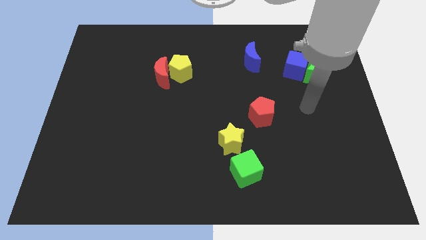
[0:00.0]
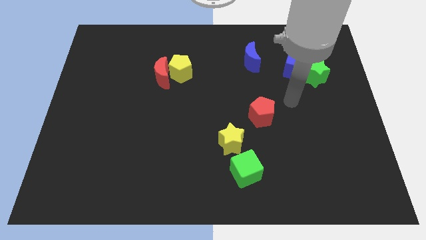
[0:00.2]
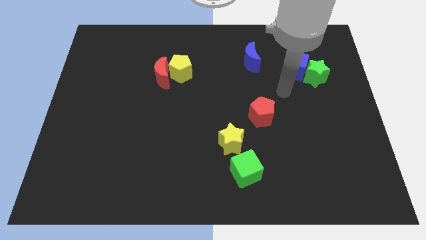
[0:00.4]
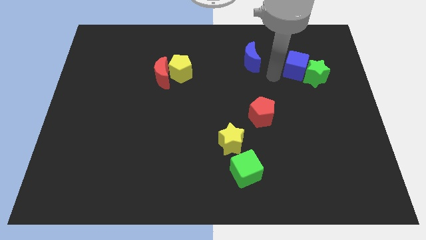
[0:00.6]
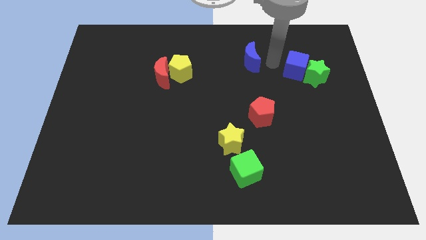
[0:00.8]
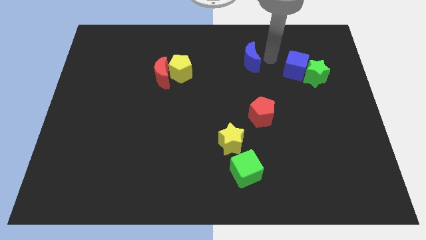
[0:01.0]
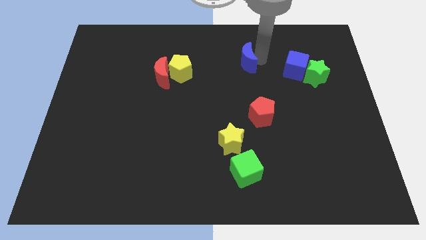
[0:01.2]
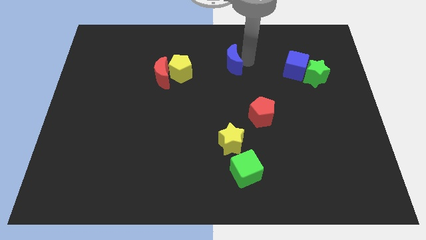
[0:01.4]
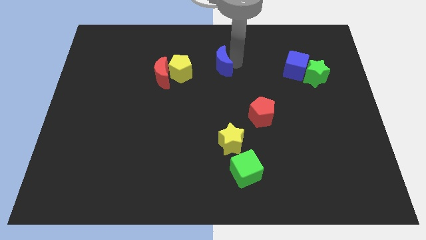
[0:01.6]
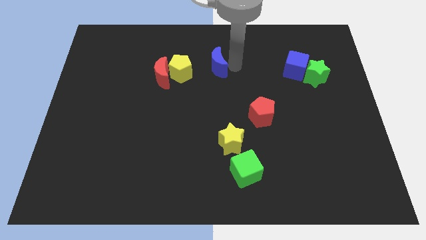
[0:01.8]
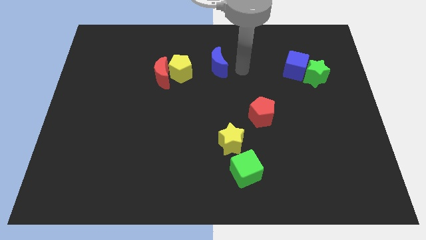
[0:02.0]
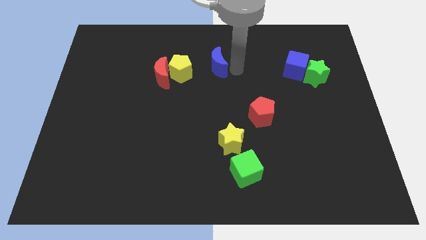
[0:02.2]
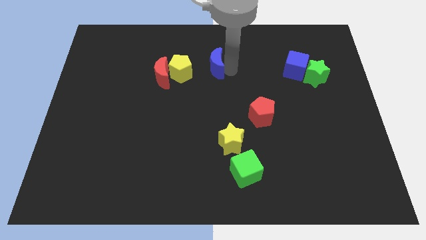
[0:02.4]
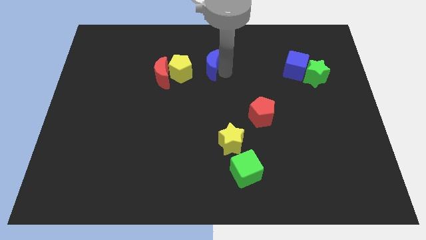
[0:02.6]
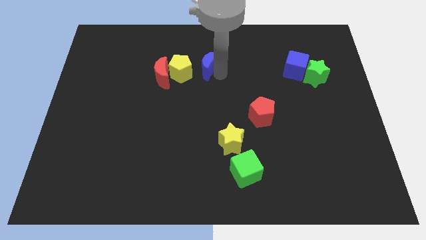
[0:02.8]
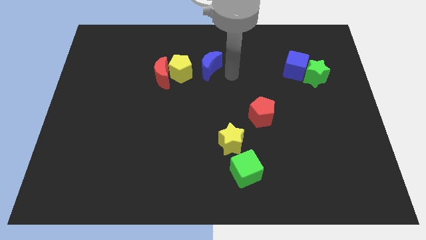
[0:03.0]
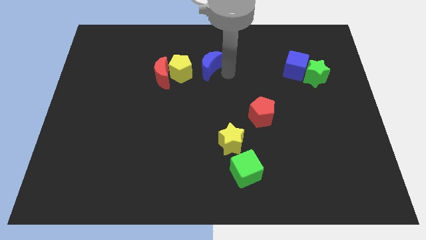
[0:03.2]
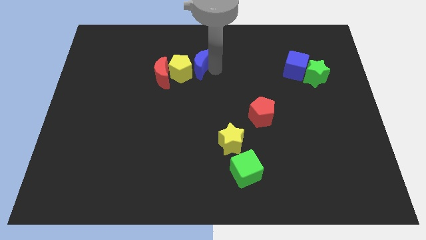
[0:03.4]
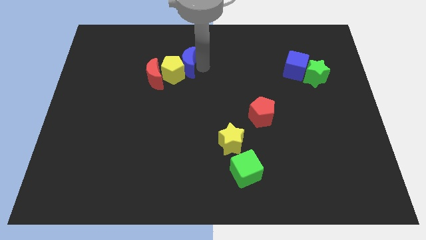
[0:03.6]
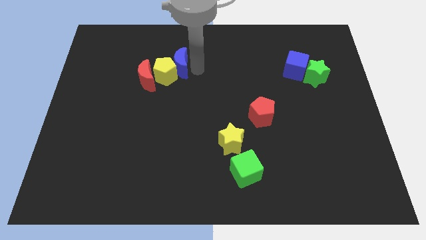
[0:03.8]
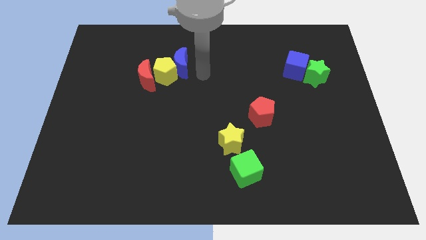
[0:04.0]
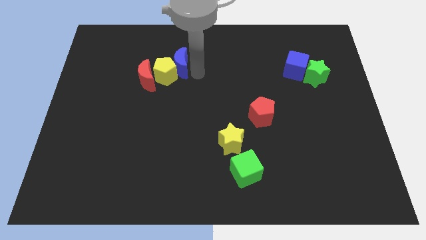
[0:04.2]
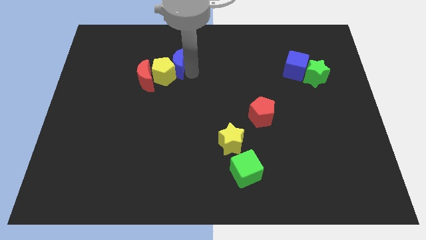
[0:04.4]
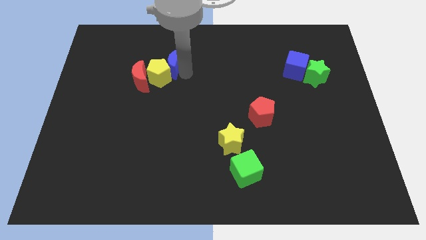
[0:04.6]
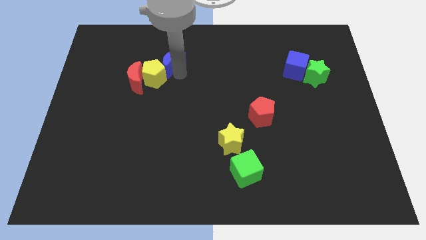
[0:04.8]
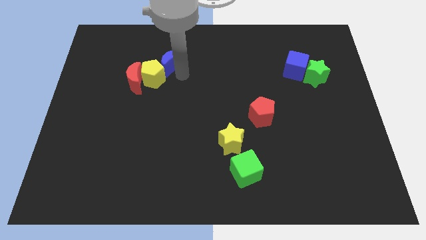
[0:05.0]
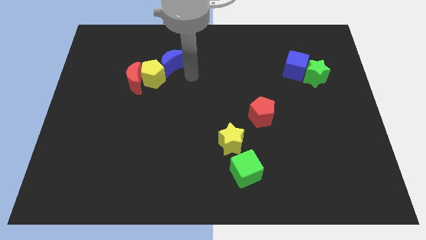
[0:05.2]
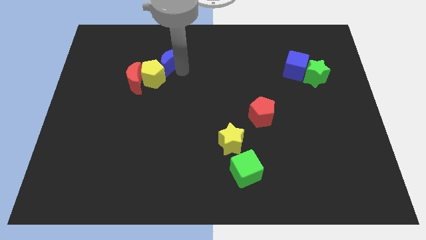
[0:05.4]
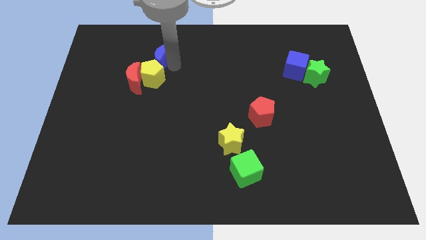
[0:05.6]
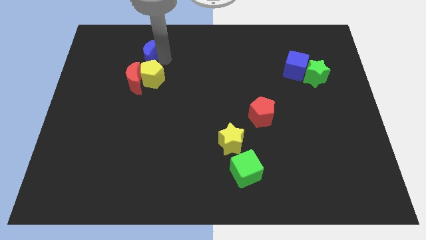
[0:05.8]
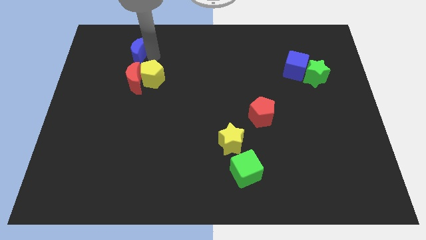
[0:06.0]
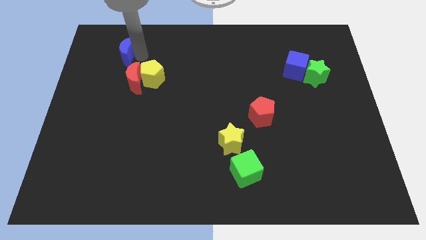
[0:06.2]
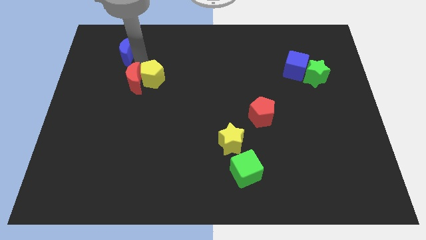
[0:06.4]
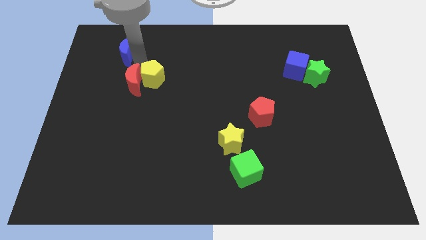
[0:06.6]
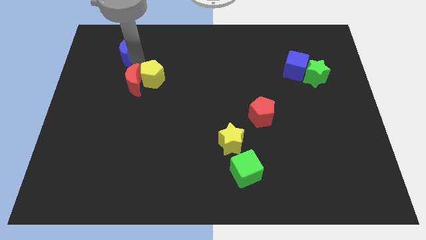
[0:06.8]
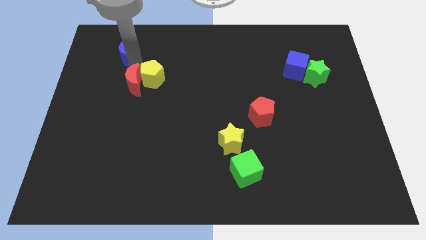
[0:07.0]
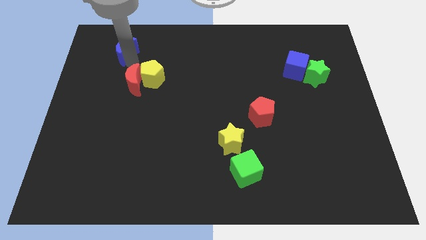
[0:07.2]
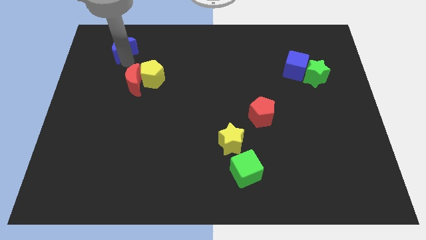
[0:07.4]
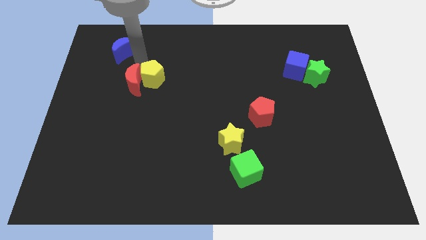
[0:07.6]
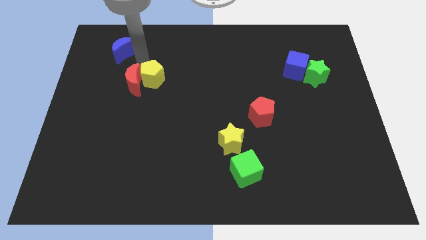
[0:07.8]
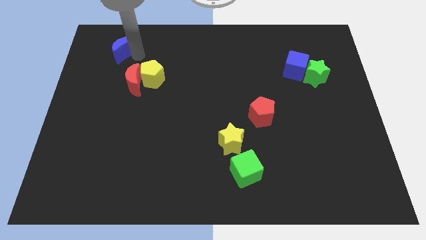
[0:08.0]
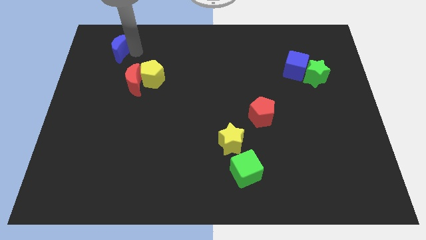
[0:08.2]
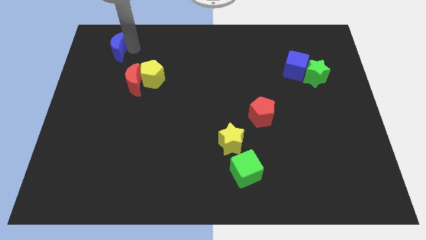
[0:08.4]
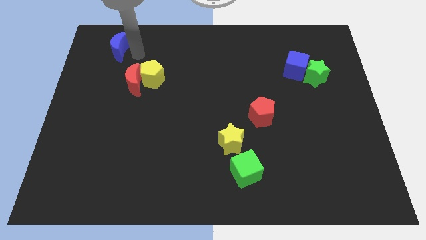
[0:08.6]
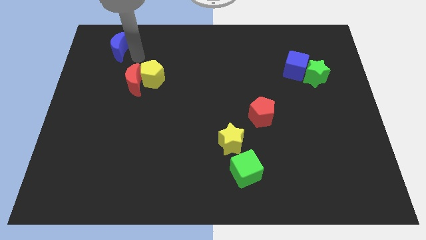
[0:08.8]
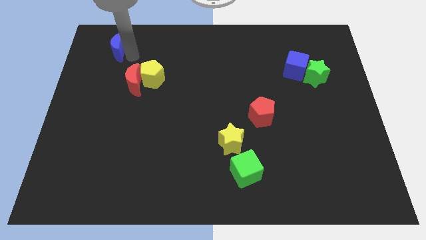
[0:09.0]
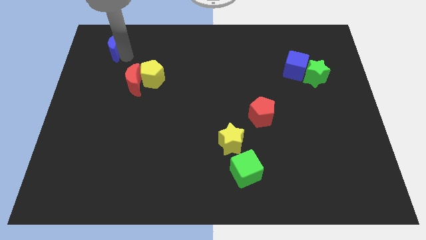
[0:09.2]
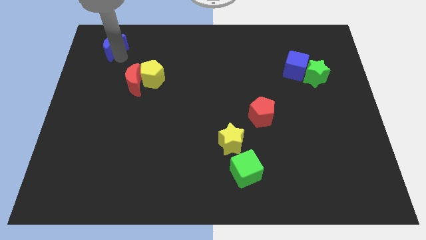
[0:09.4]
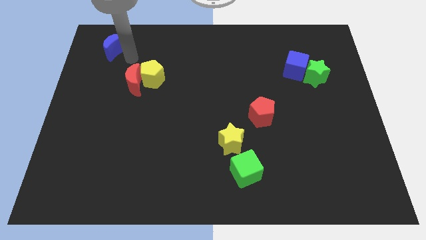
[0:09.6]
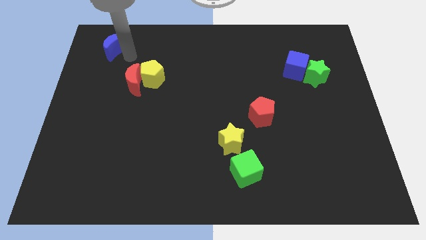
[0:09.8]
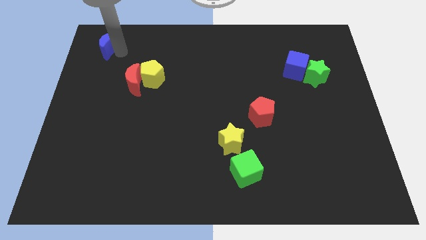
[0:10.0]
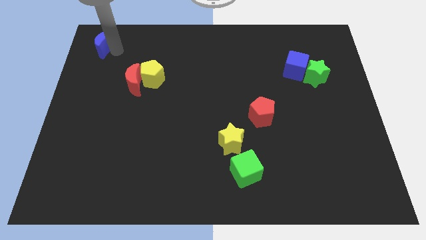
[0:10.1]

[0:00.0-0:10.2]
push the blue moon to the top left

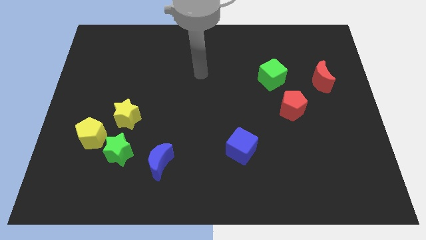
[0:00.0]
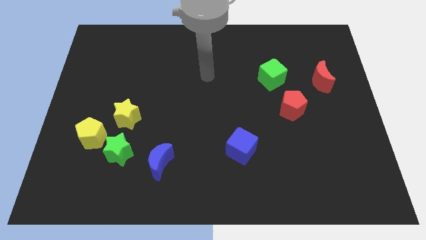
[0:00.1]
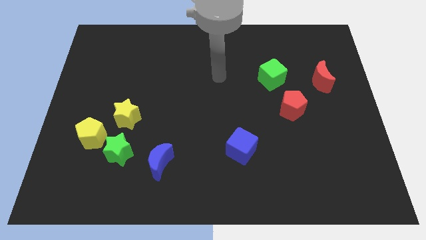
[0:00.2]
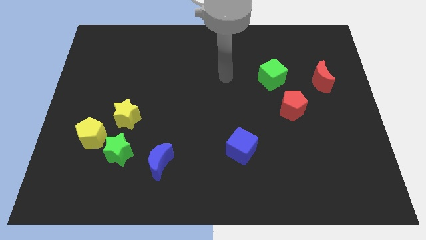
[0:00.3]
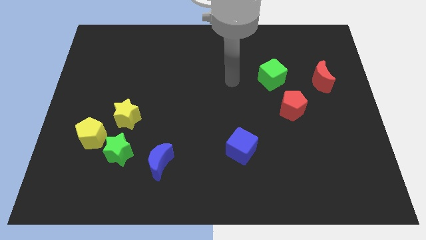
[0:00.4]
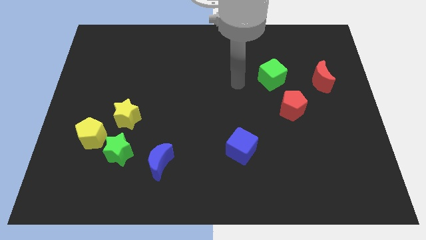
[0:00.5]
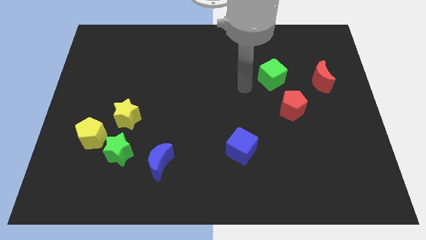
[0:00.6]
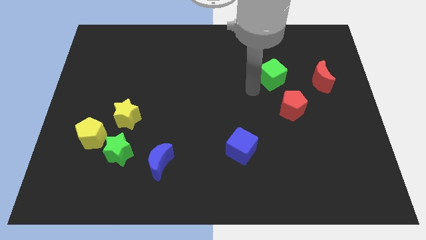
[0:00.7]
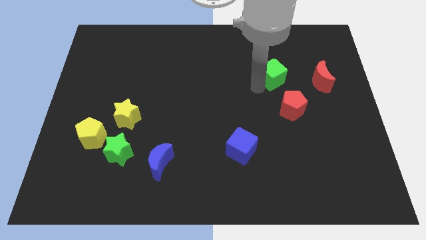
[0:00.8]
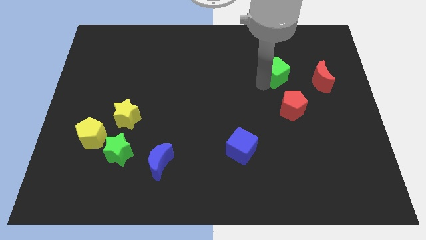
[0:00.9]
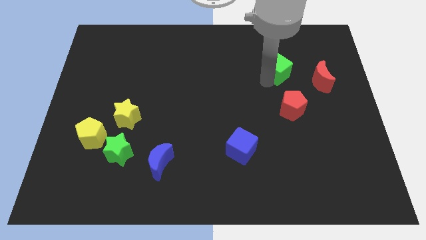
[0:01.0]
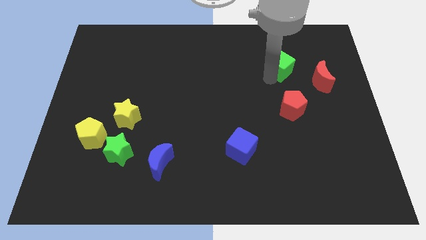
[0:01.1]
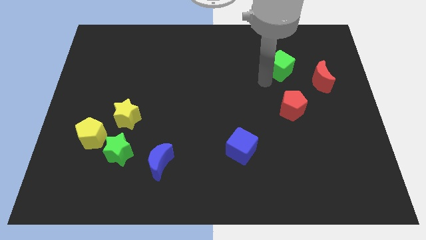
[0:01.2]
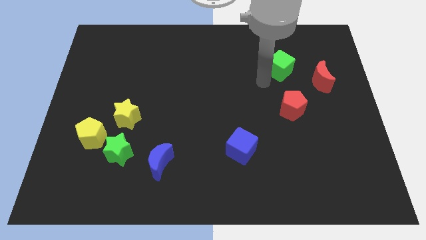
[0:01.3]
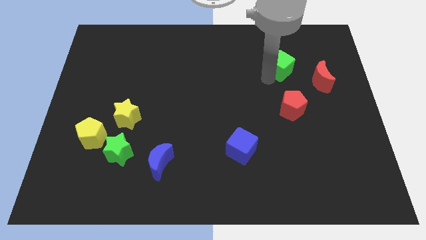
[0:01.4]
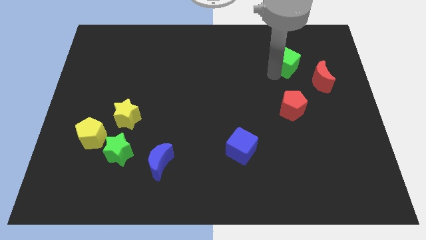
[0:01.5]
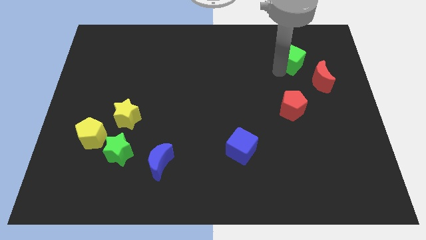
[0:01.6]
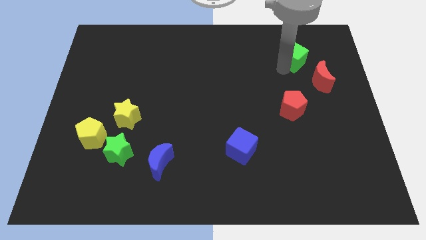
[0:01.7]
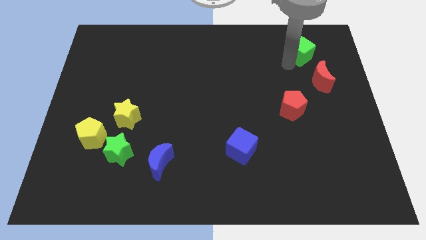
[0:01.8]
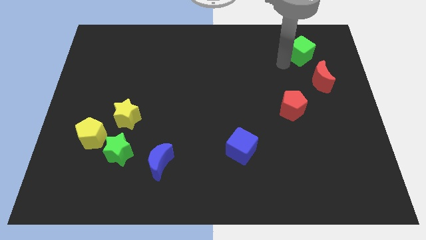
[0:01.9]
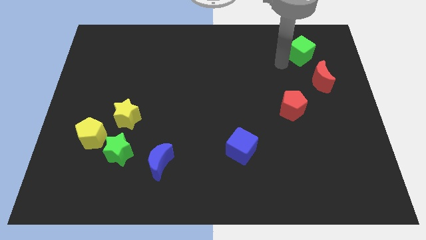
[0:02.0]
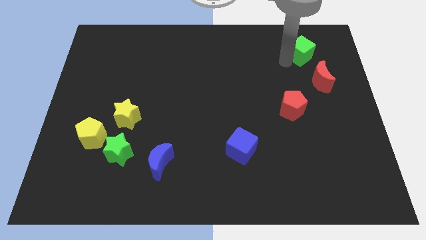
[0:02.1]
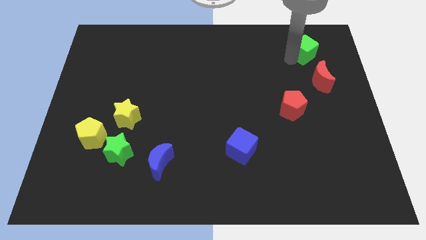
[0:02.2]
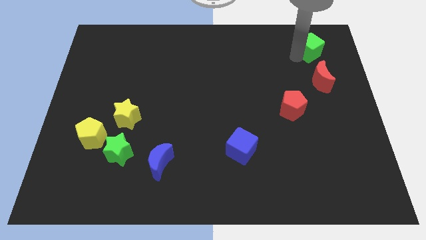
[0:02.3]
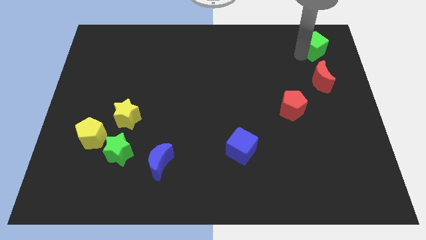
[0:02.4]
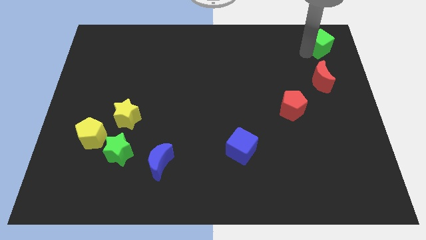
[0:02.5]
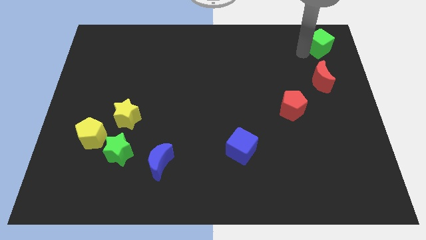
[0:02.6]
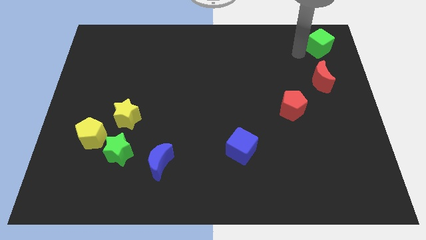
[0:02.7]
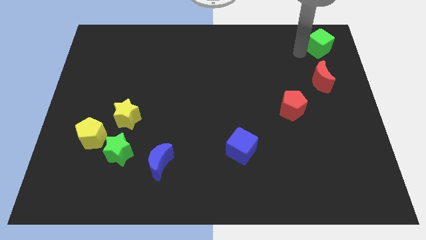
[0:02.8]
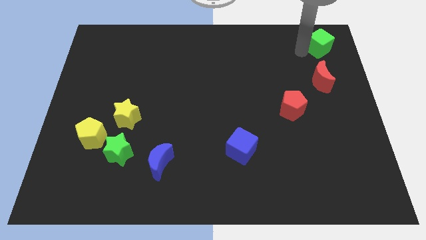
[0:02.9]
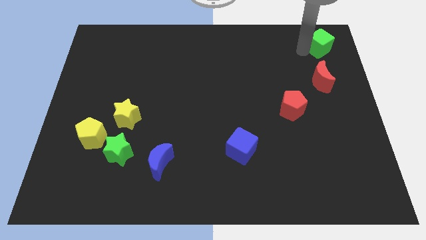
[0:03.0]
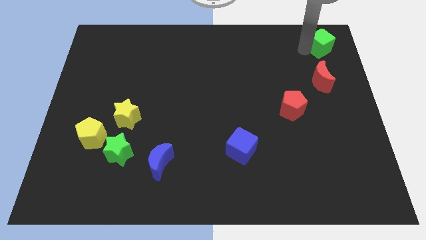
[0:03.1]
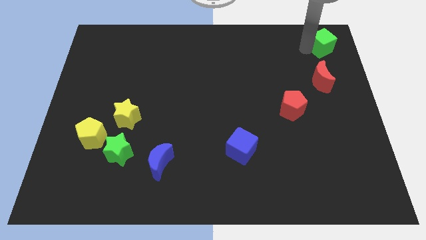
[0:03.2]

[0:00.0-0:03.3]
push the green cube to the top right
